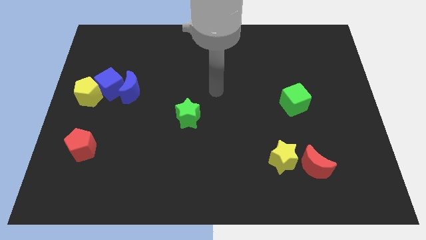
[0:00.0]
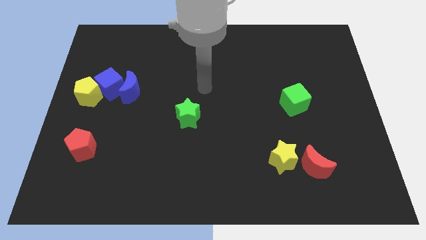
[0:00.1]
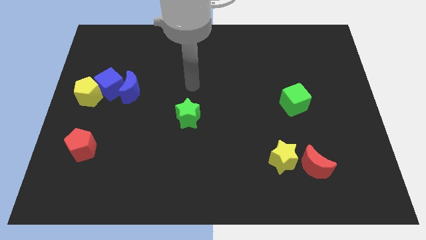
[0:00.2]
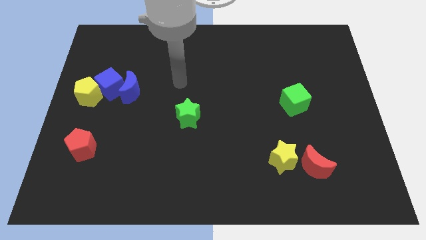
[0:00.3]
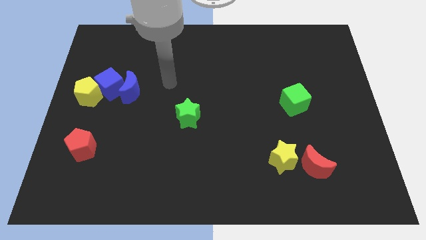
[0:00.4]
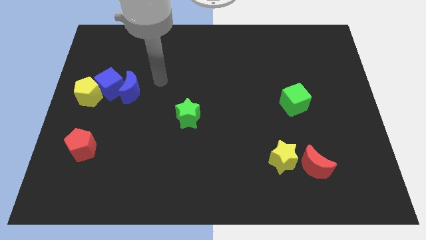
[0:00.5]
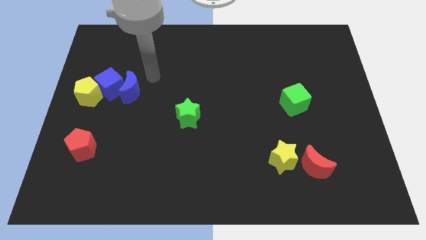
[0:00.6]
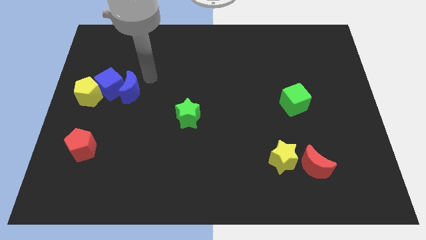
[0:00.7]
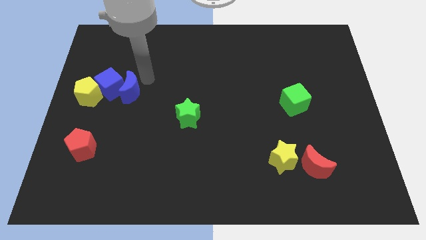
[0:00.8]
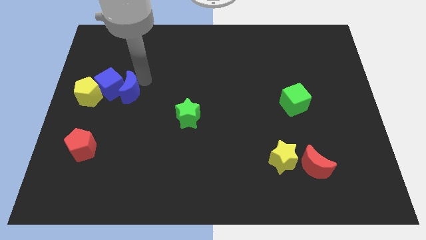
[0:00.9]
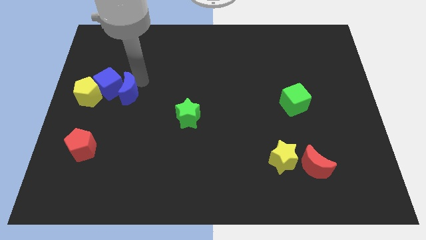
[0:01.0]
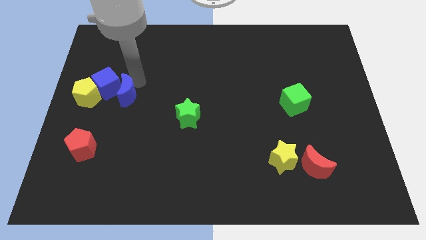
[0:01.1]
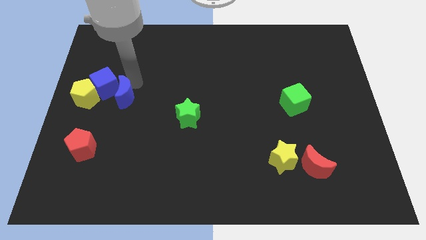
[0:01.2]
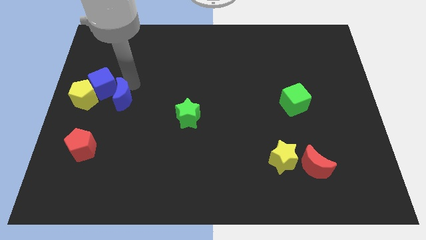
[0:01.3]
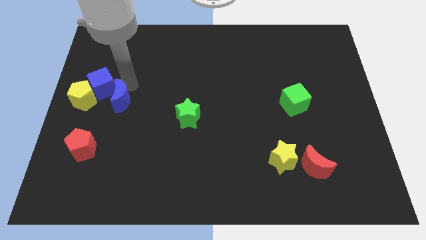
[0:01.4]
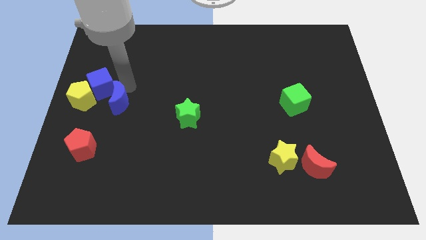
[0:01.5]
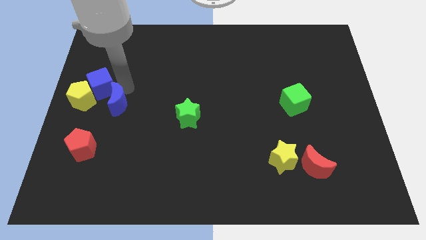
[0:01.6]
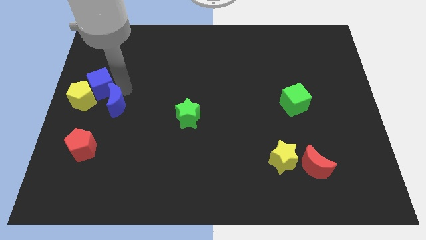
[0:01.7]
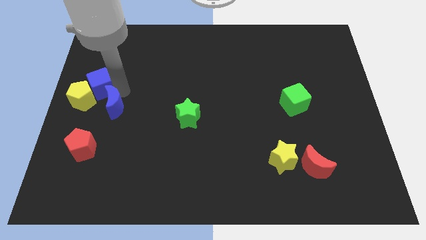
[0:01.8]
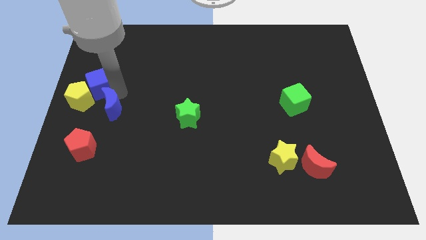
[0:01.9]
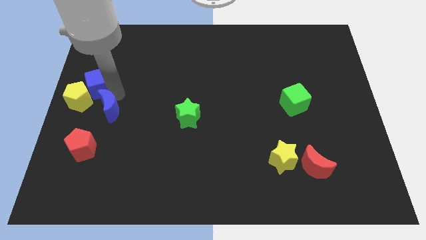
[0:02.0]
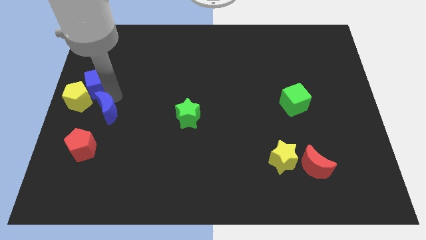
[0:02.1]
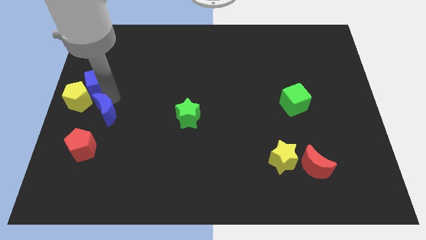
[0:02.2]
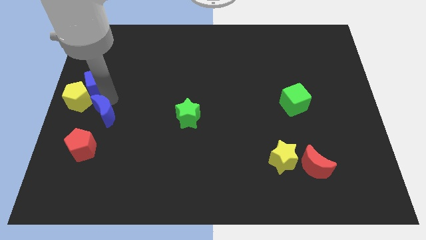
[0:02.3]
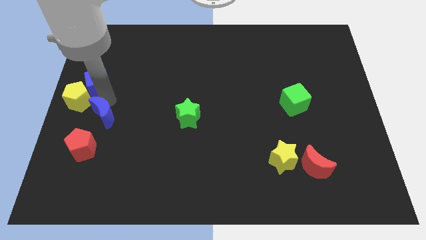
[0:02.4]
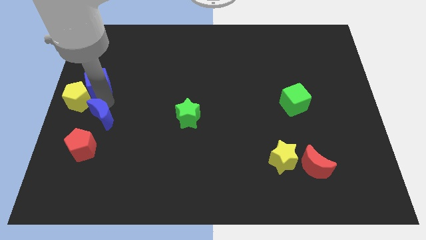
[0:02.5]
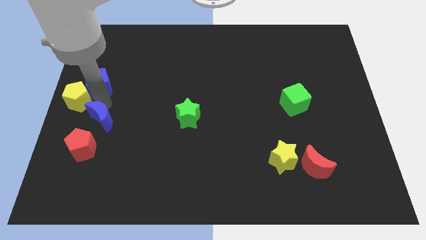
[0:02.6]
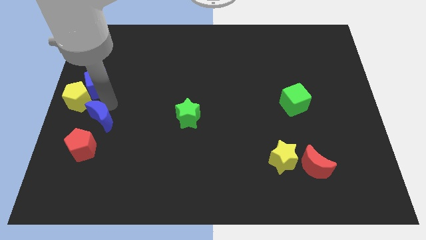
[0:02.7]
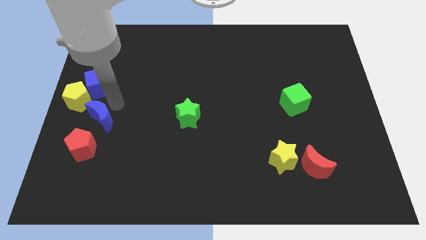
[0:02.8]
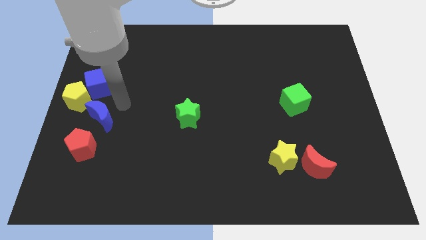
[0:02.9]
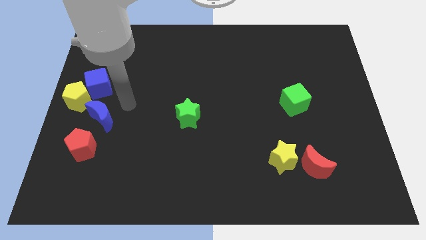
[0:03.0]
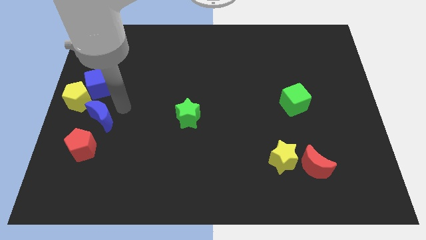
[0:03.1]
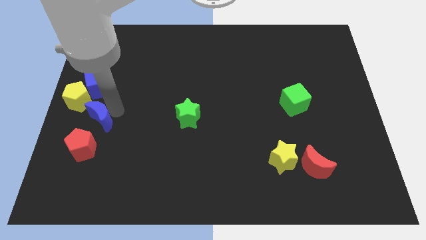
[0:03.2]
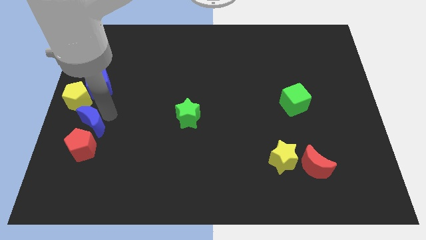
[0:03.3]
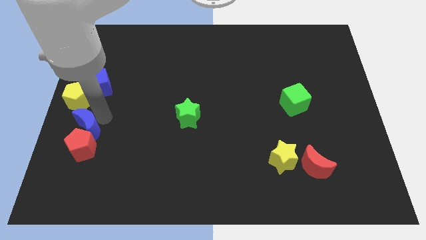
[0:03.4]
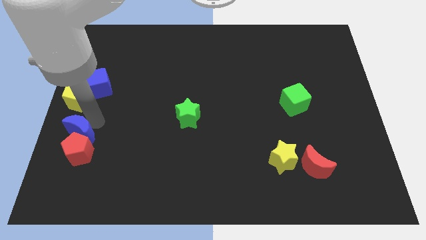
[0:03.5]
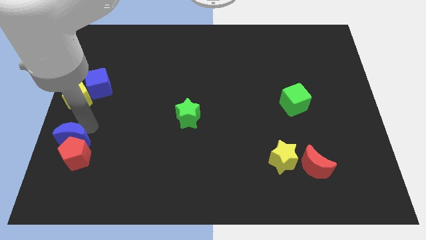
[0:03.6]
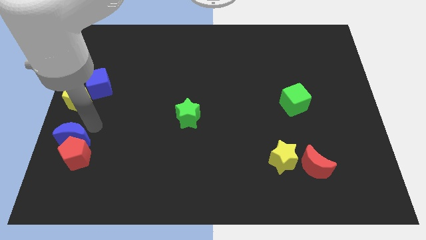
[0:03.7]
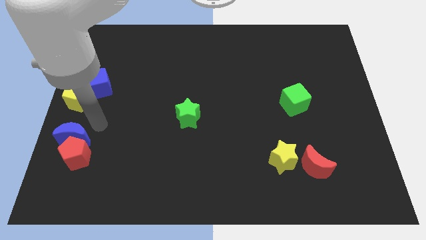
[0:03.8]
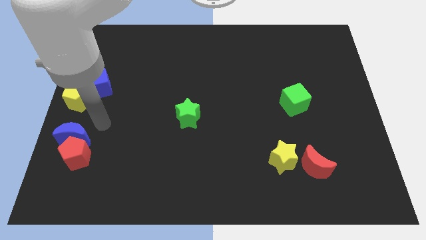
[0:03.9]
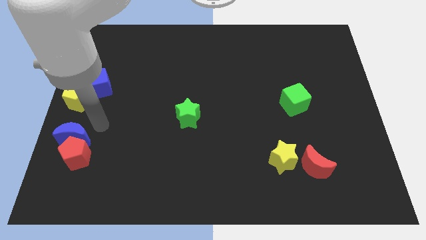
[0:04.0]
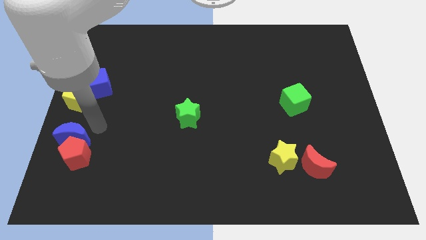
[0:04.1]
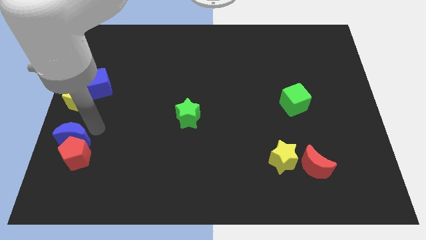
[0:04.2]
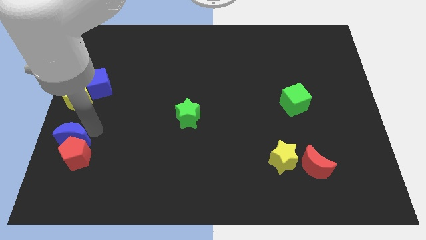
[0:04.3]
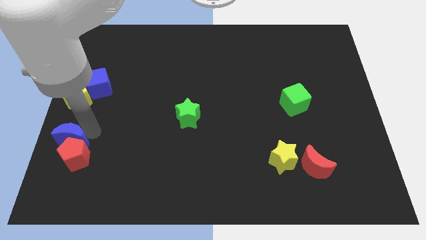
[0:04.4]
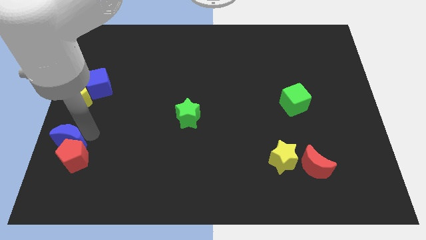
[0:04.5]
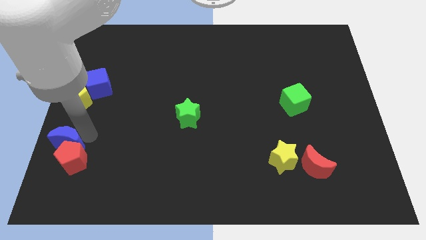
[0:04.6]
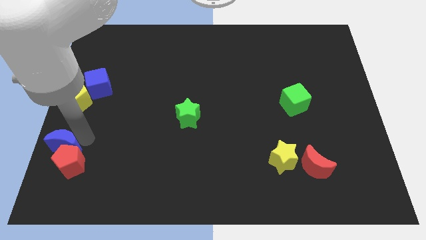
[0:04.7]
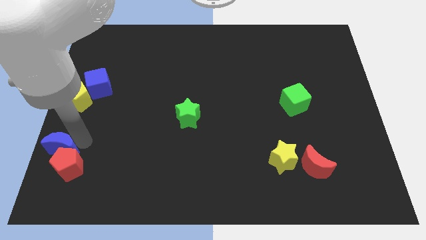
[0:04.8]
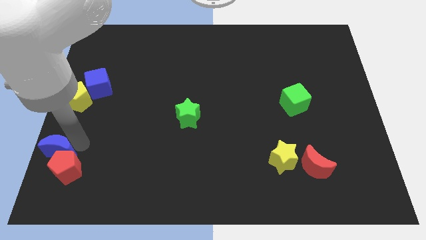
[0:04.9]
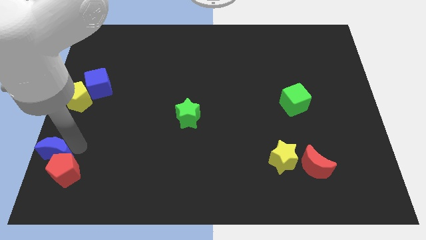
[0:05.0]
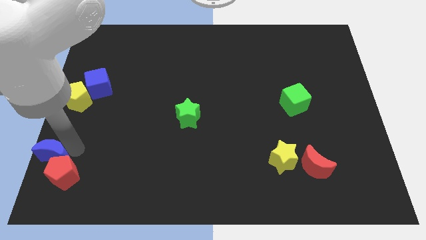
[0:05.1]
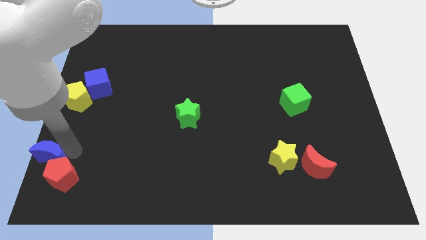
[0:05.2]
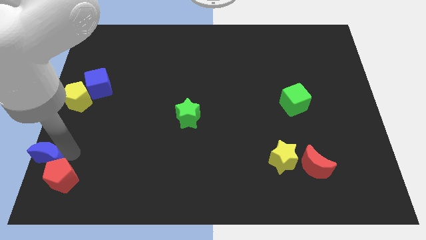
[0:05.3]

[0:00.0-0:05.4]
move the blue moon to the bottom left corner

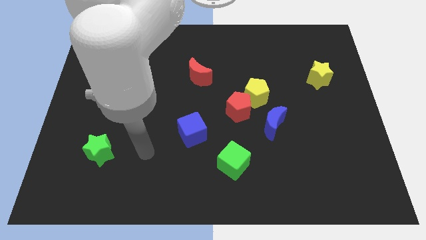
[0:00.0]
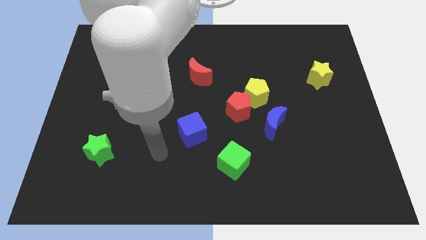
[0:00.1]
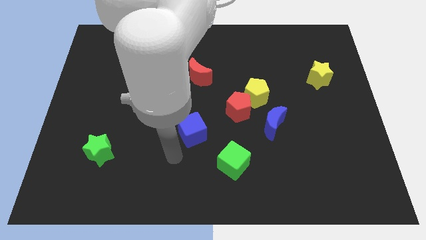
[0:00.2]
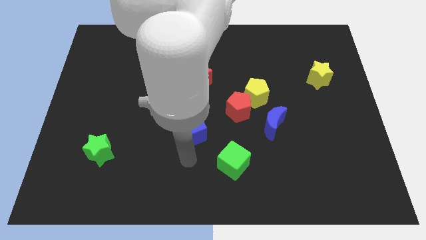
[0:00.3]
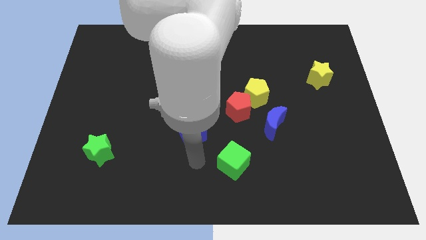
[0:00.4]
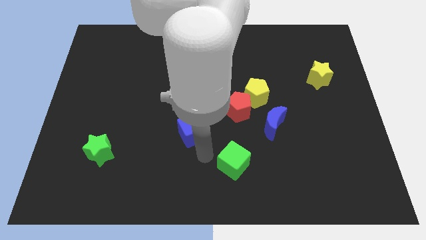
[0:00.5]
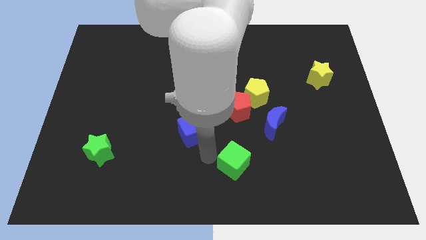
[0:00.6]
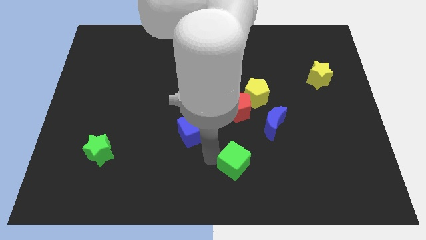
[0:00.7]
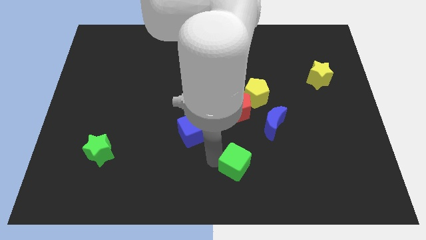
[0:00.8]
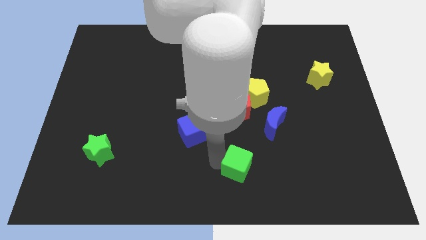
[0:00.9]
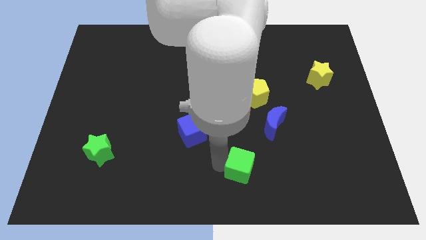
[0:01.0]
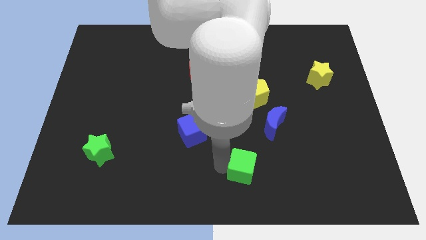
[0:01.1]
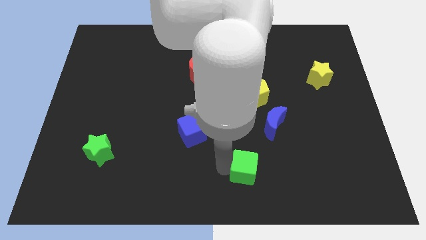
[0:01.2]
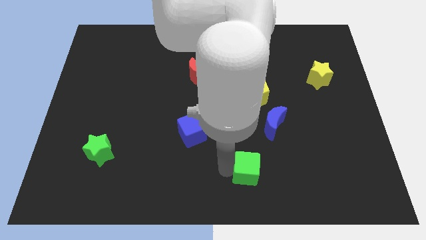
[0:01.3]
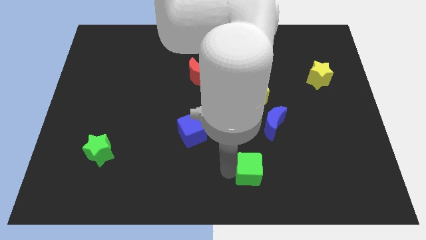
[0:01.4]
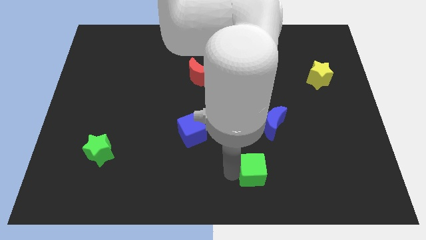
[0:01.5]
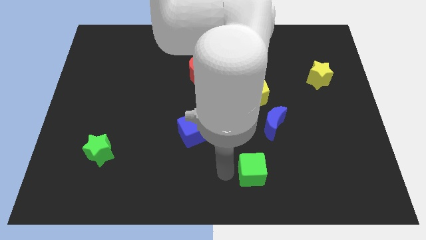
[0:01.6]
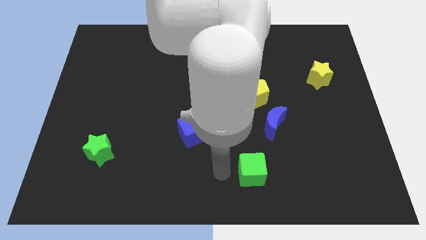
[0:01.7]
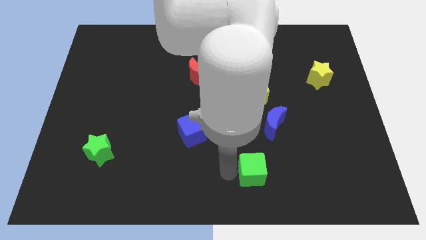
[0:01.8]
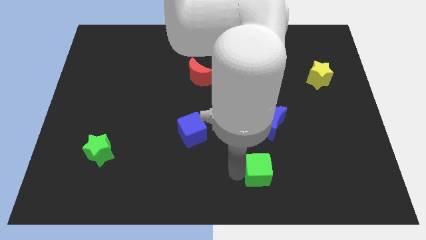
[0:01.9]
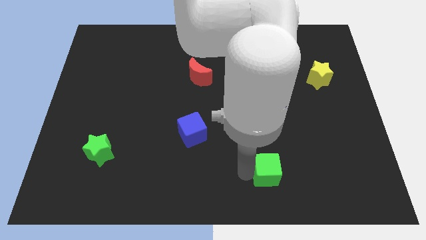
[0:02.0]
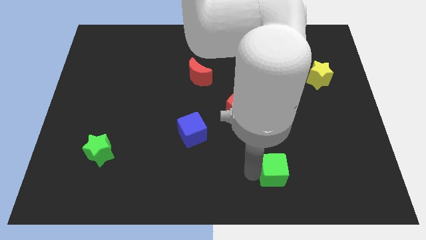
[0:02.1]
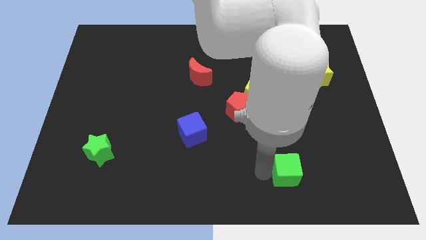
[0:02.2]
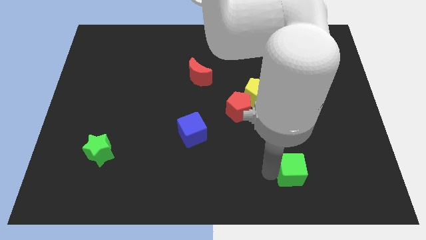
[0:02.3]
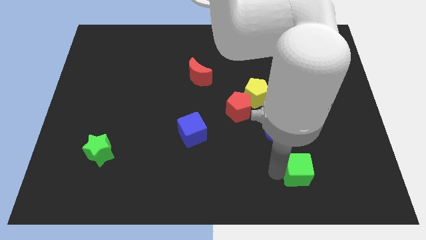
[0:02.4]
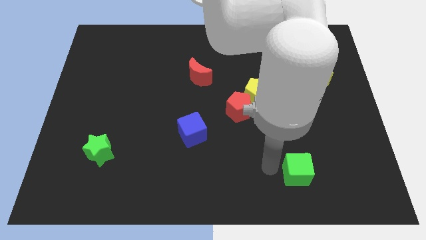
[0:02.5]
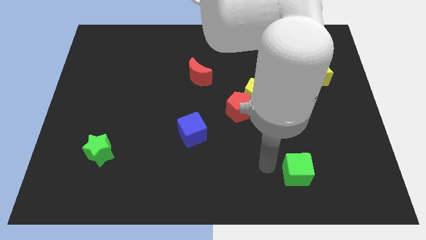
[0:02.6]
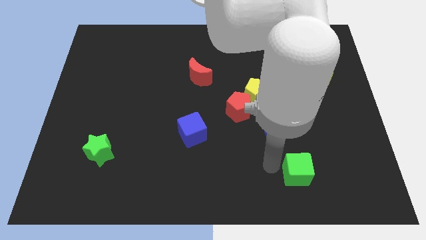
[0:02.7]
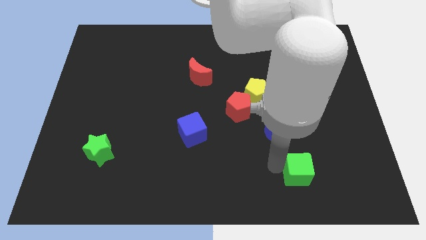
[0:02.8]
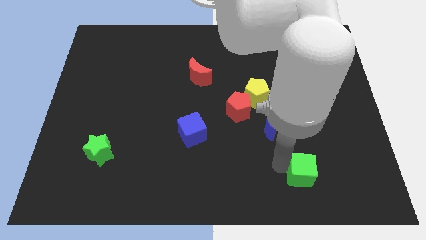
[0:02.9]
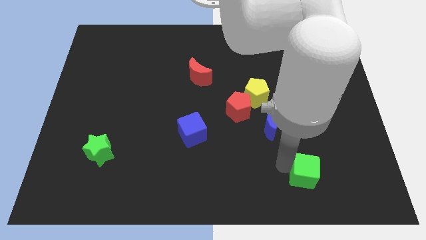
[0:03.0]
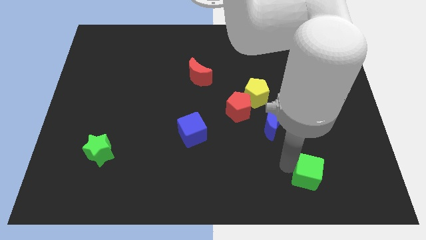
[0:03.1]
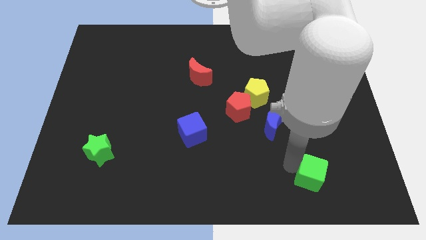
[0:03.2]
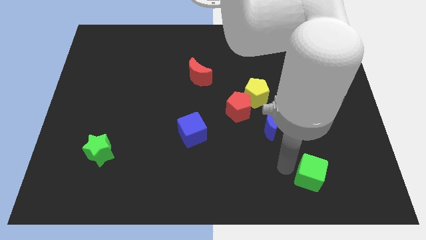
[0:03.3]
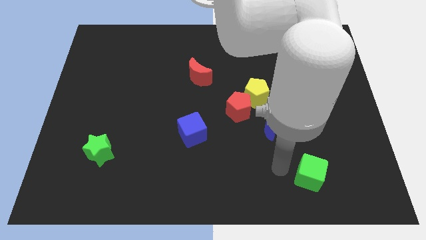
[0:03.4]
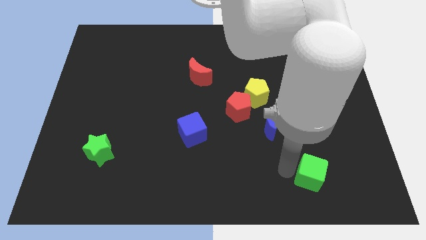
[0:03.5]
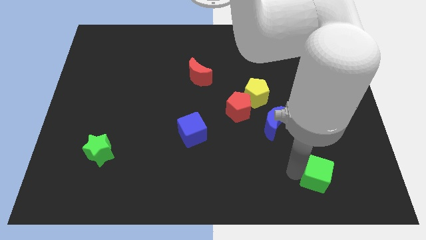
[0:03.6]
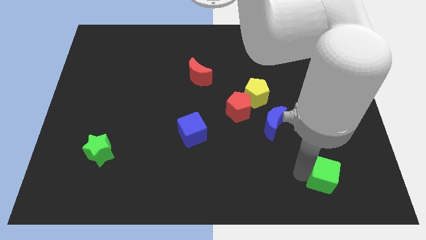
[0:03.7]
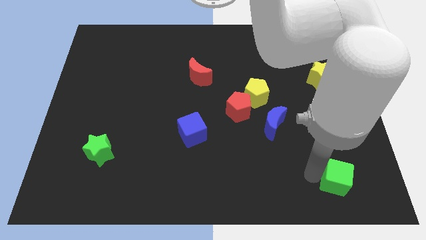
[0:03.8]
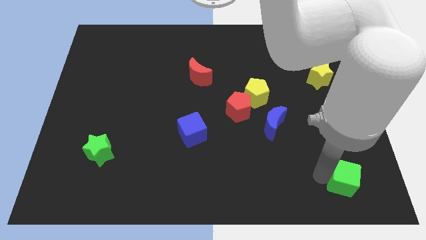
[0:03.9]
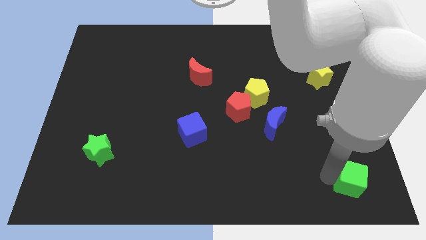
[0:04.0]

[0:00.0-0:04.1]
push the green cube to the bottom right
